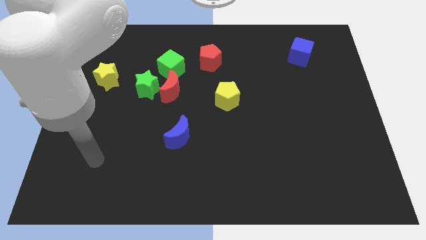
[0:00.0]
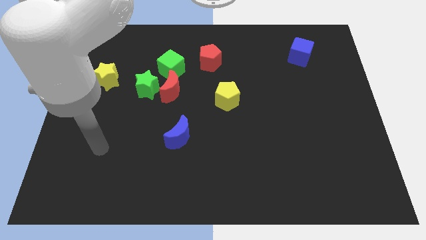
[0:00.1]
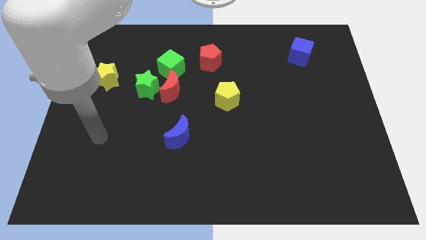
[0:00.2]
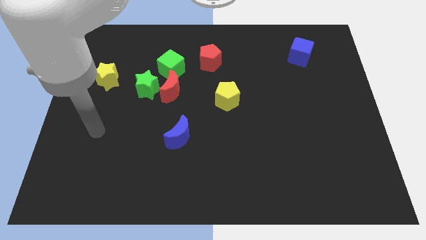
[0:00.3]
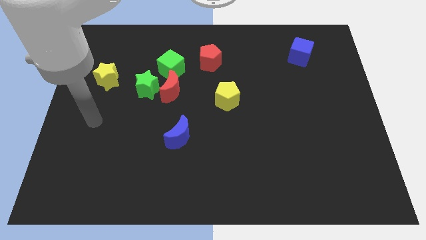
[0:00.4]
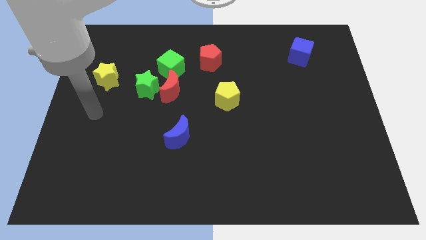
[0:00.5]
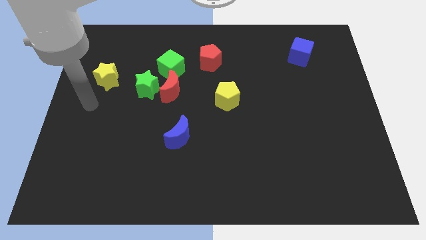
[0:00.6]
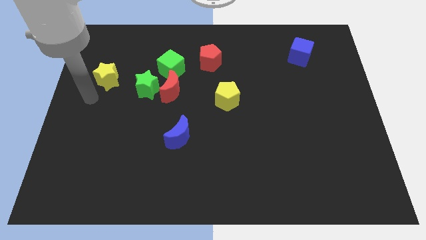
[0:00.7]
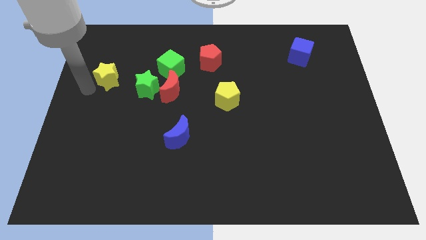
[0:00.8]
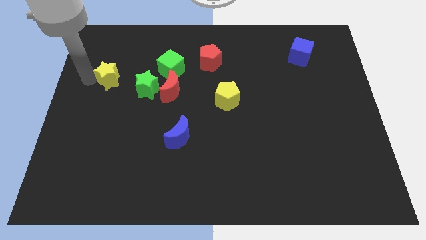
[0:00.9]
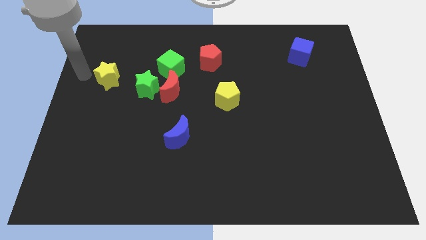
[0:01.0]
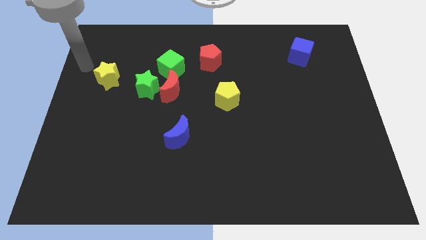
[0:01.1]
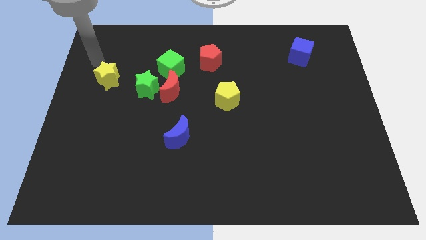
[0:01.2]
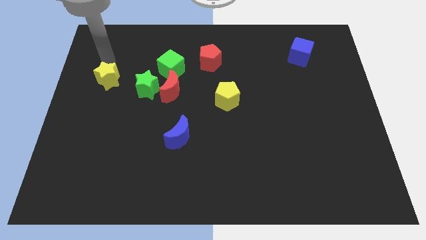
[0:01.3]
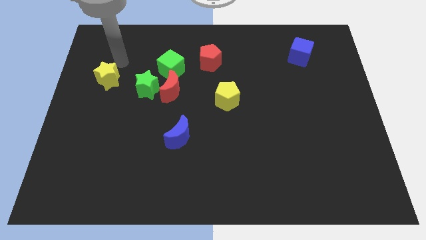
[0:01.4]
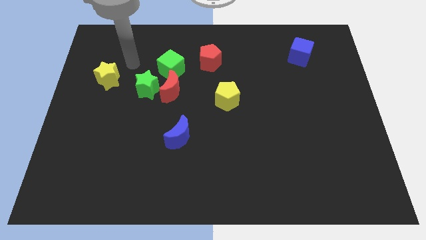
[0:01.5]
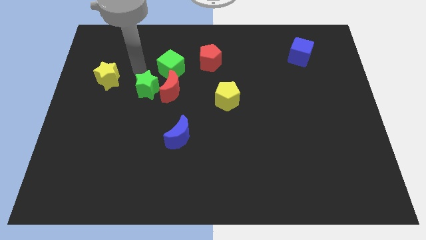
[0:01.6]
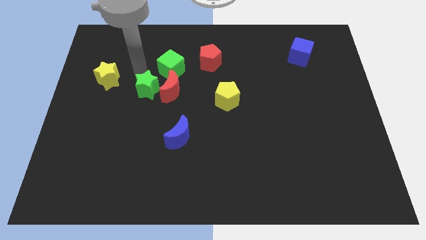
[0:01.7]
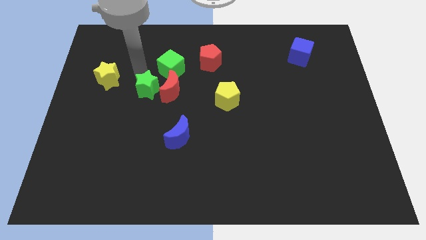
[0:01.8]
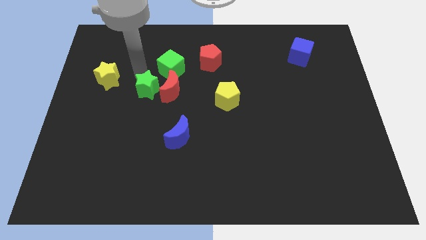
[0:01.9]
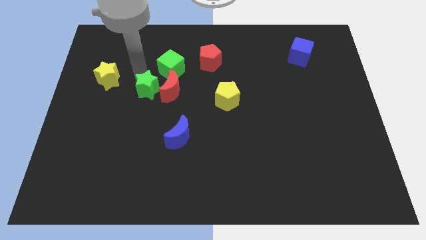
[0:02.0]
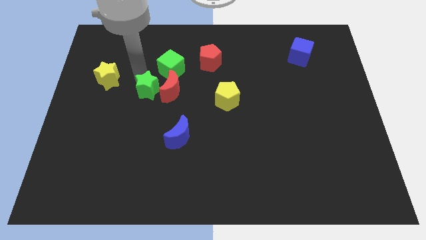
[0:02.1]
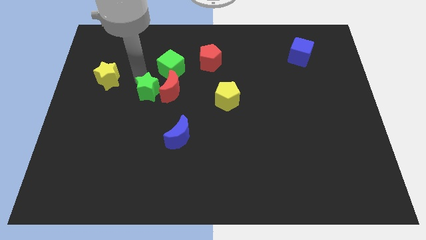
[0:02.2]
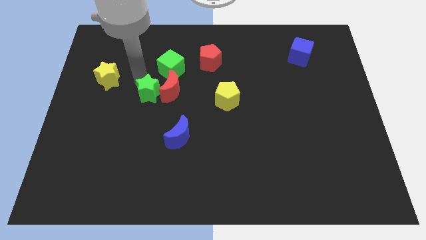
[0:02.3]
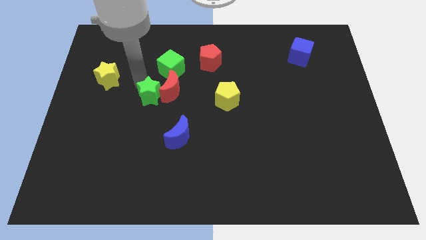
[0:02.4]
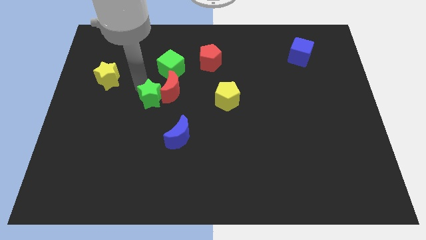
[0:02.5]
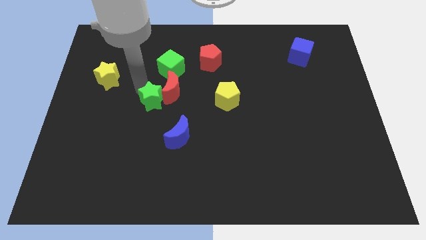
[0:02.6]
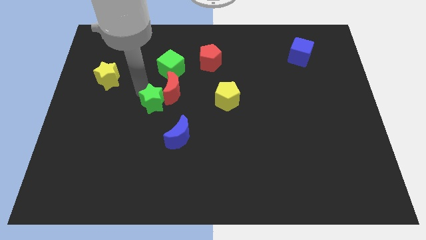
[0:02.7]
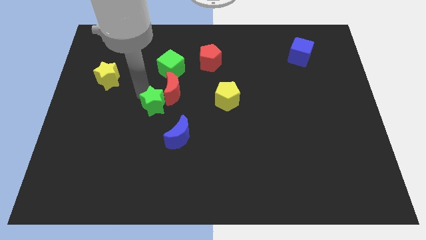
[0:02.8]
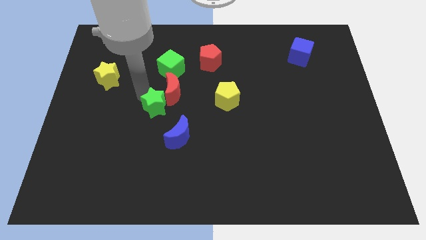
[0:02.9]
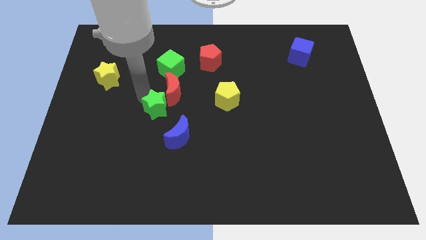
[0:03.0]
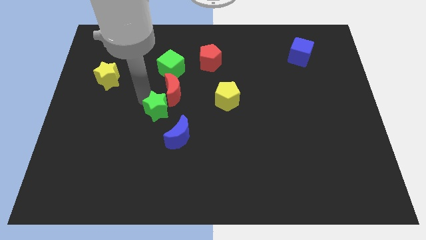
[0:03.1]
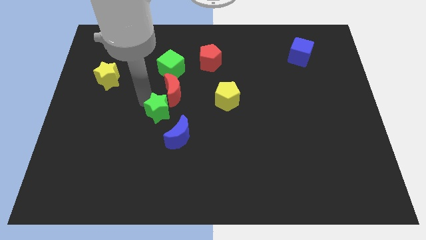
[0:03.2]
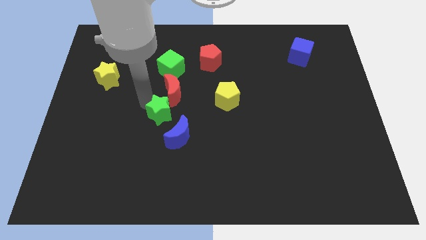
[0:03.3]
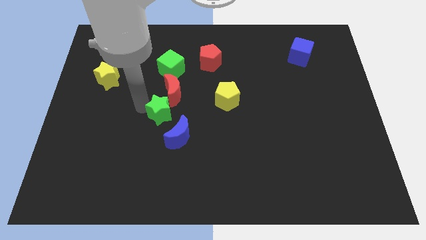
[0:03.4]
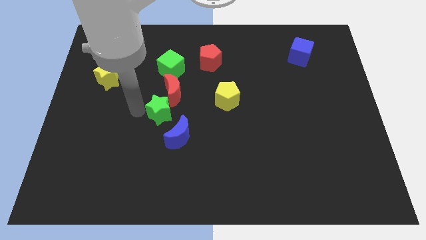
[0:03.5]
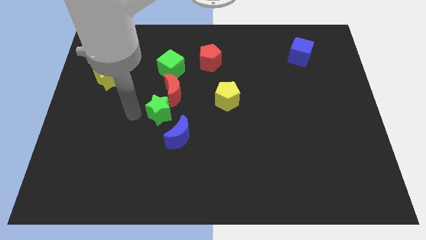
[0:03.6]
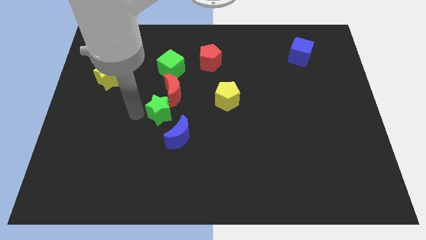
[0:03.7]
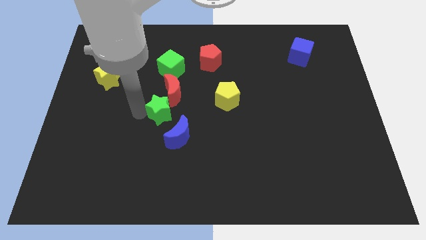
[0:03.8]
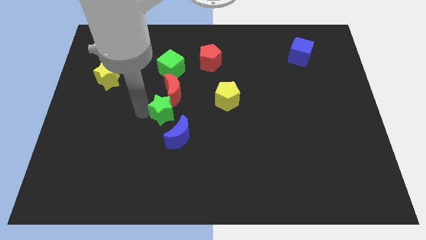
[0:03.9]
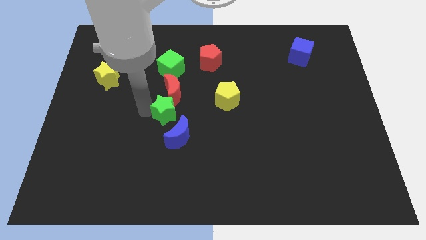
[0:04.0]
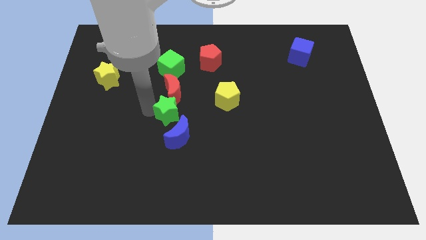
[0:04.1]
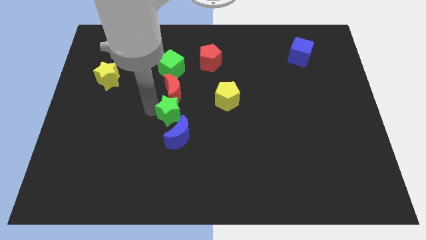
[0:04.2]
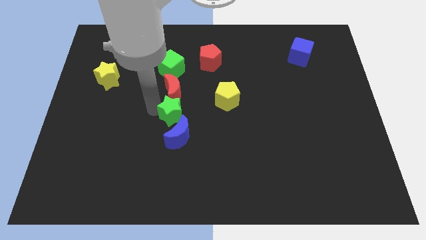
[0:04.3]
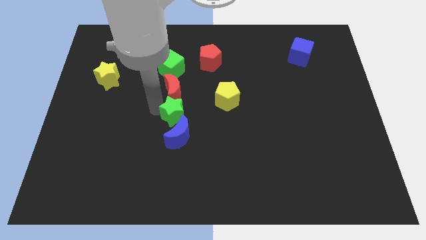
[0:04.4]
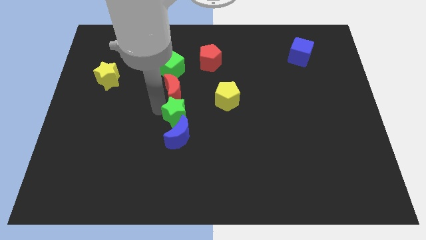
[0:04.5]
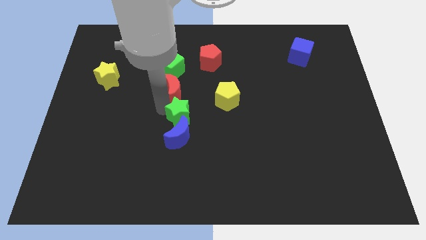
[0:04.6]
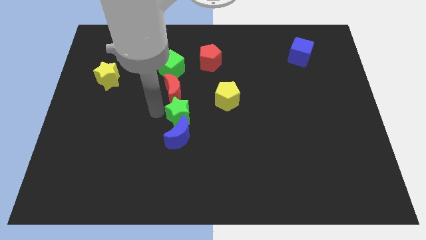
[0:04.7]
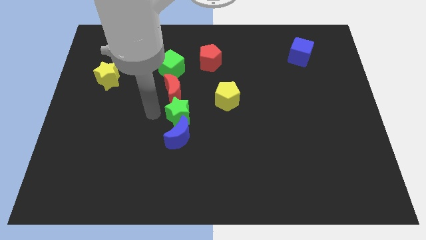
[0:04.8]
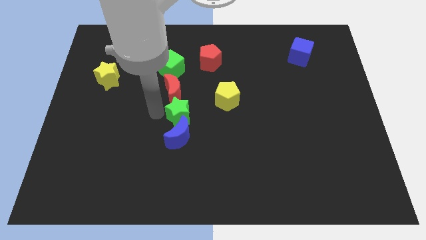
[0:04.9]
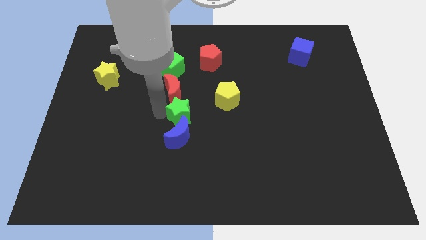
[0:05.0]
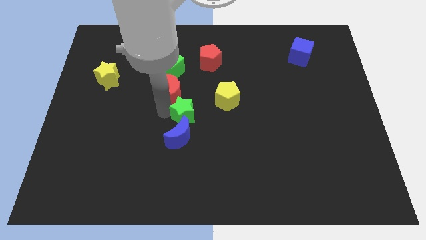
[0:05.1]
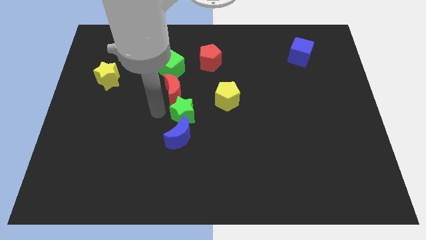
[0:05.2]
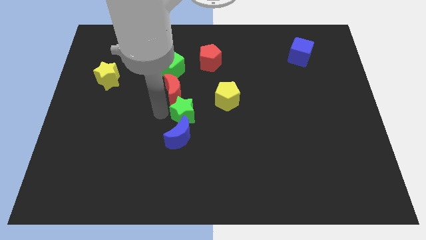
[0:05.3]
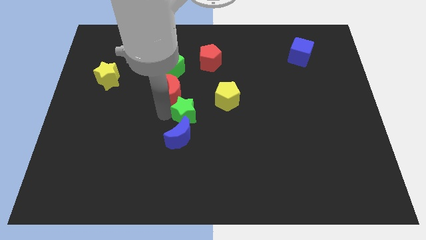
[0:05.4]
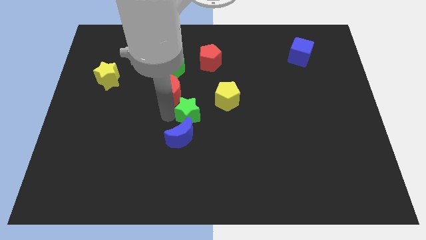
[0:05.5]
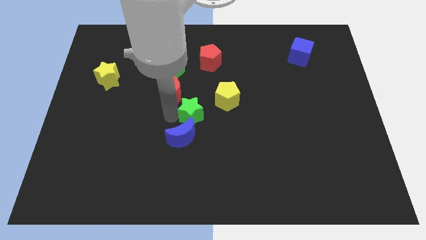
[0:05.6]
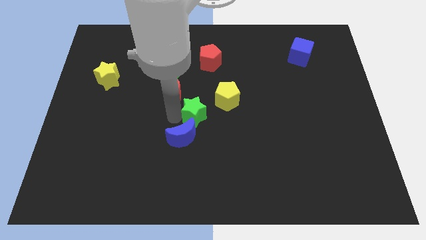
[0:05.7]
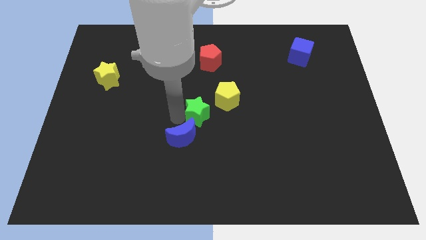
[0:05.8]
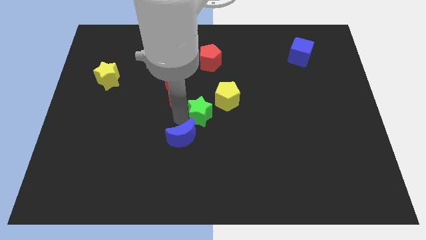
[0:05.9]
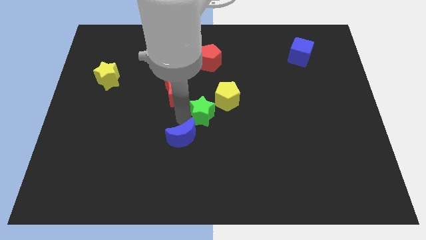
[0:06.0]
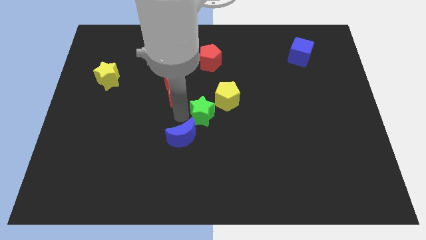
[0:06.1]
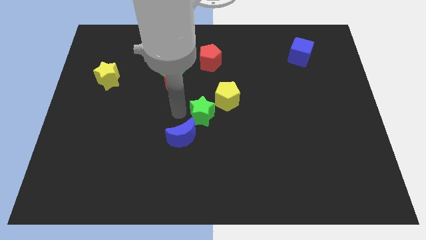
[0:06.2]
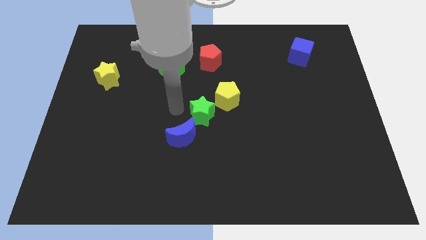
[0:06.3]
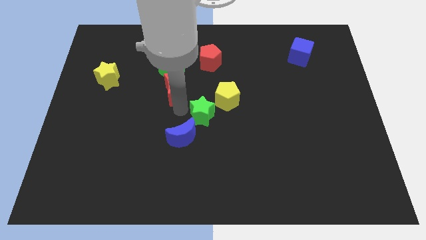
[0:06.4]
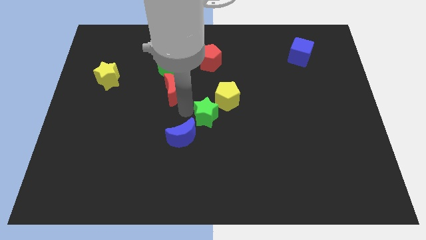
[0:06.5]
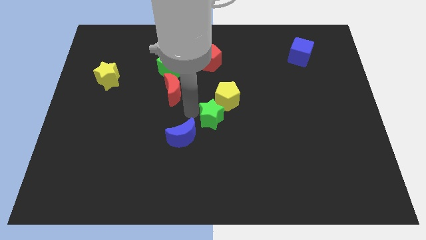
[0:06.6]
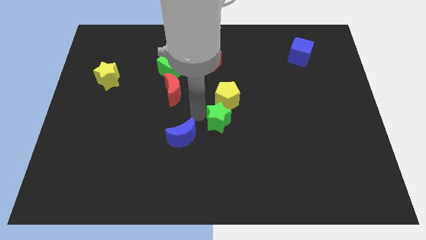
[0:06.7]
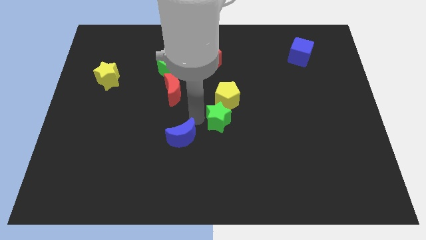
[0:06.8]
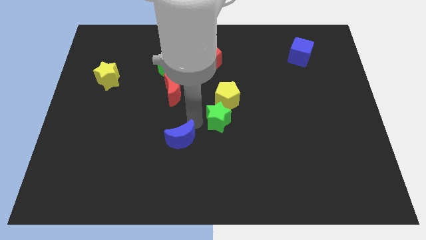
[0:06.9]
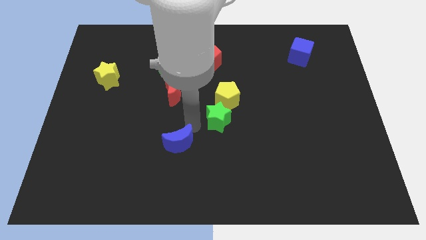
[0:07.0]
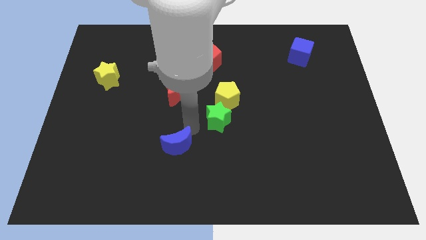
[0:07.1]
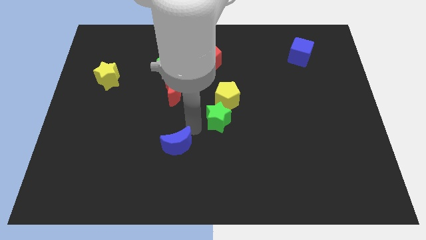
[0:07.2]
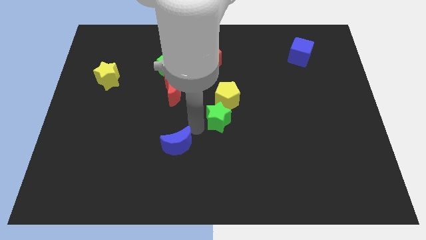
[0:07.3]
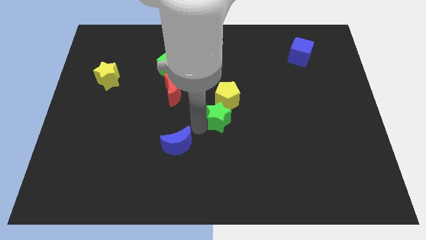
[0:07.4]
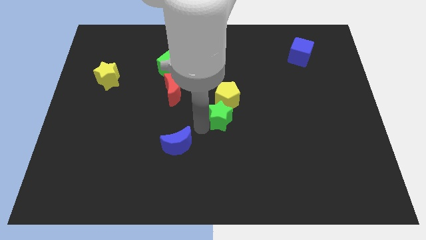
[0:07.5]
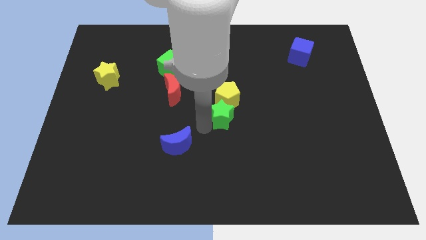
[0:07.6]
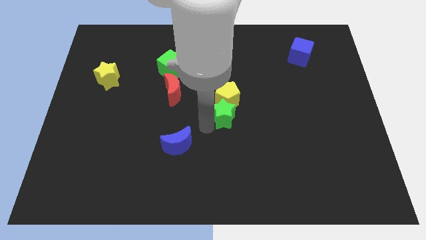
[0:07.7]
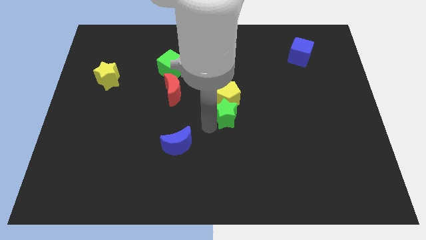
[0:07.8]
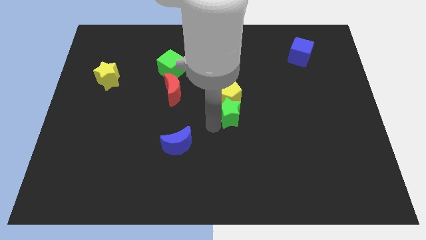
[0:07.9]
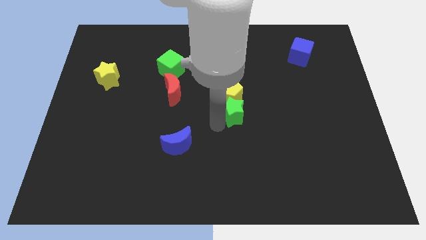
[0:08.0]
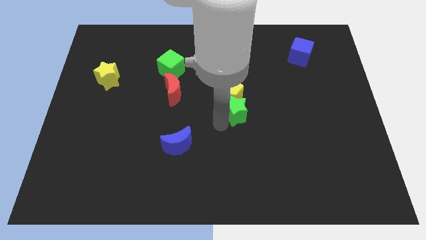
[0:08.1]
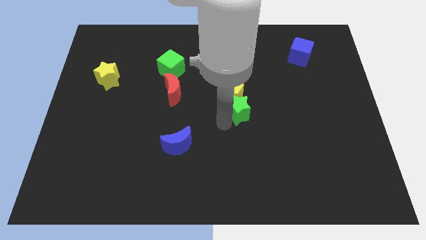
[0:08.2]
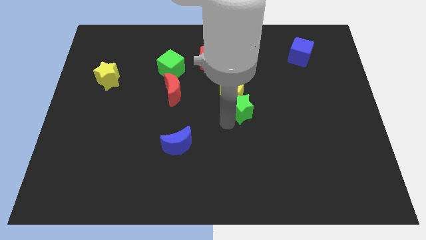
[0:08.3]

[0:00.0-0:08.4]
move the green star right
